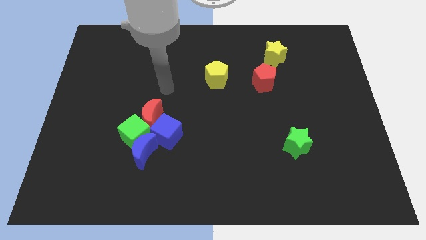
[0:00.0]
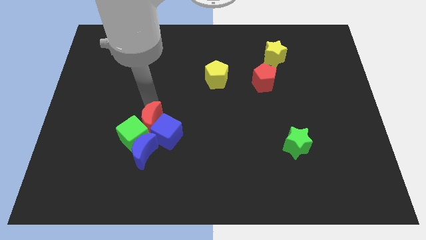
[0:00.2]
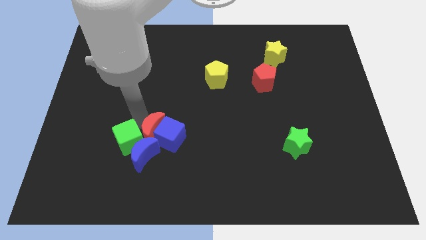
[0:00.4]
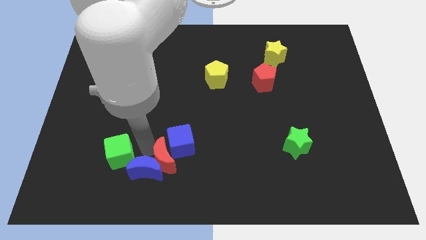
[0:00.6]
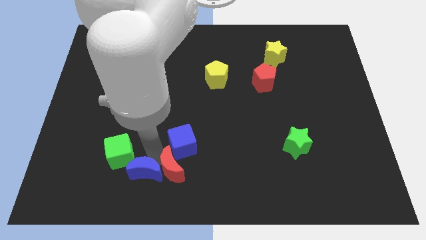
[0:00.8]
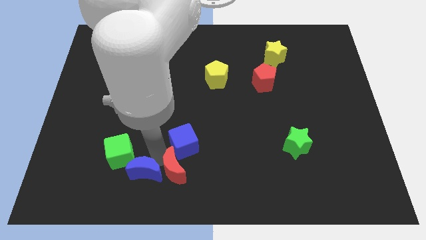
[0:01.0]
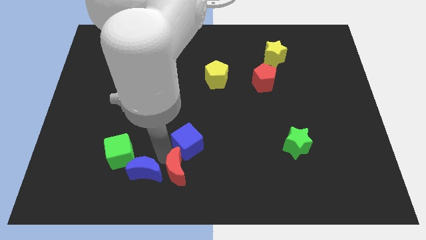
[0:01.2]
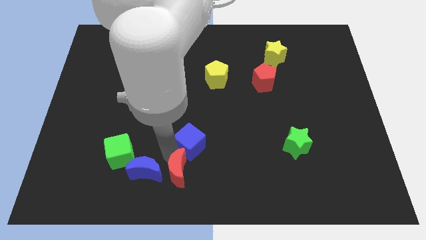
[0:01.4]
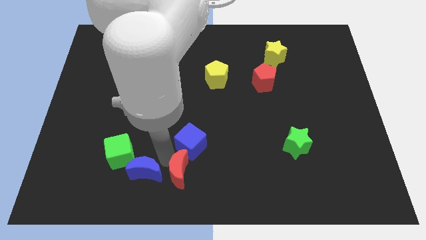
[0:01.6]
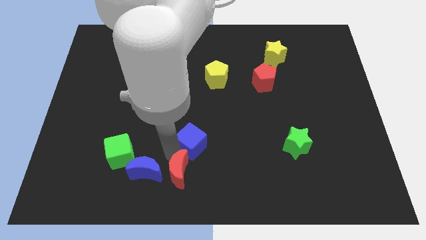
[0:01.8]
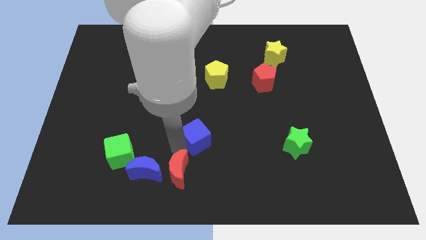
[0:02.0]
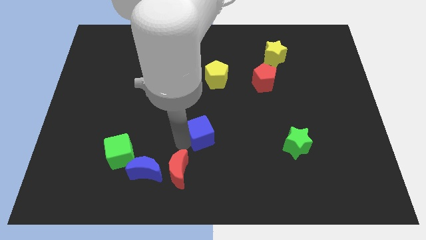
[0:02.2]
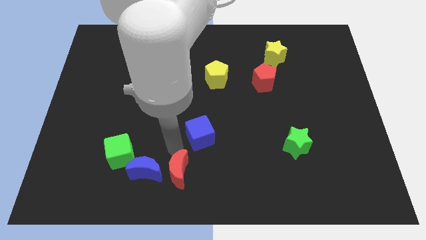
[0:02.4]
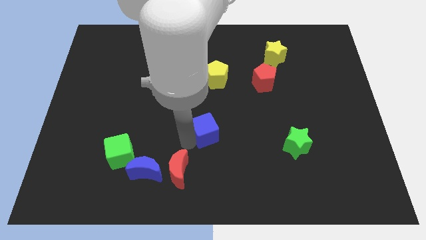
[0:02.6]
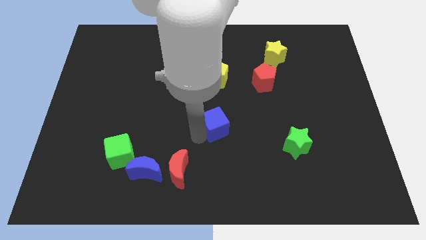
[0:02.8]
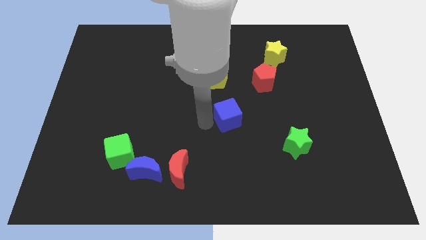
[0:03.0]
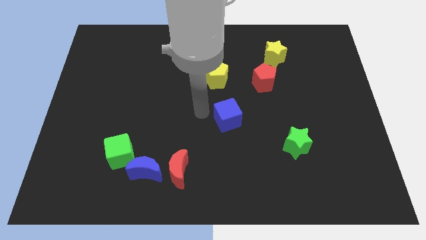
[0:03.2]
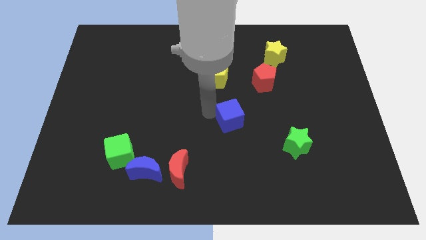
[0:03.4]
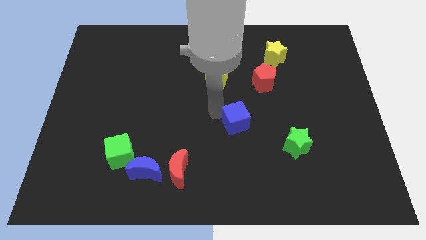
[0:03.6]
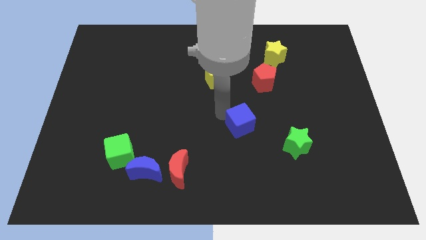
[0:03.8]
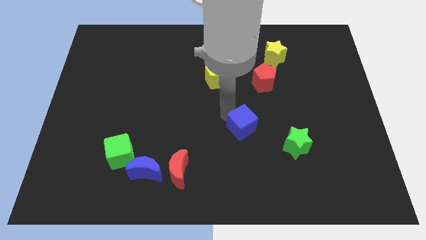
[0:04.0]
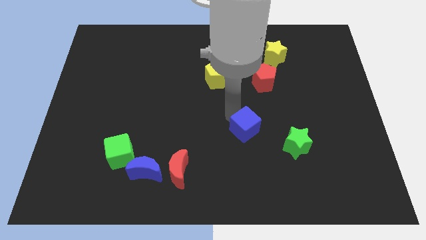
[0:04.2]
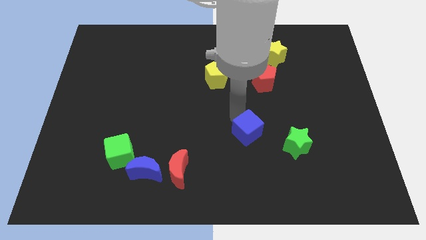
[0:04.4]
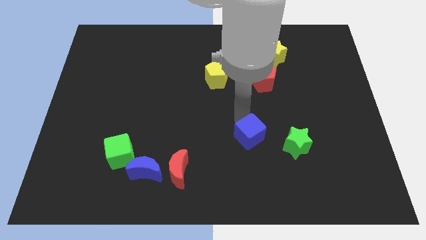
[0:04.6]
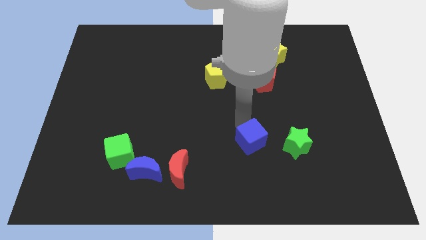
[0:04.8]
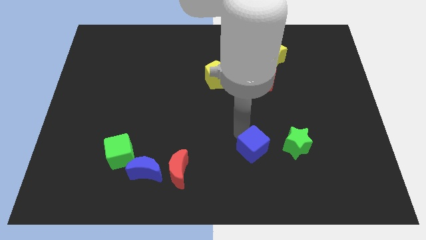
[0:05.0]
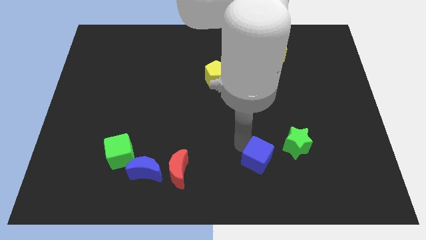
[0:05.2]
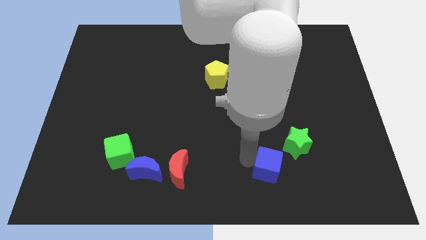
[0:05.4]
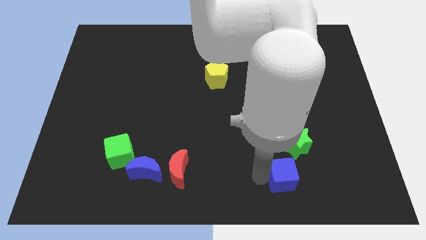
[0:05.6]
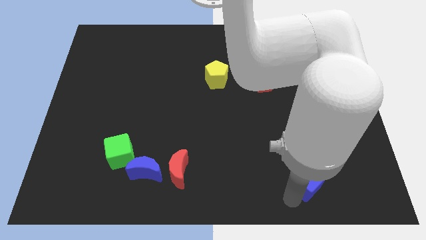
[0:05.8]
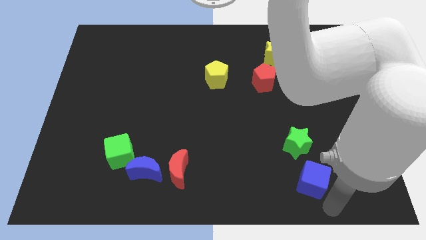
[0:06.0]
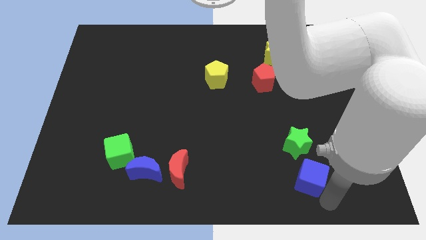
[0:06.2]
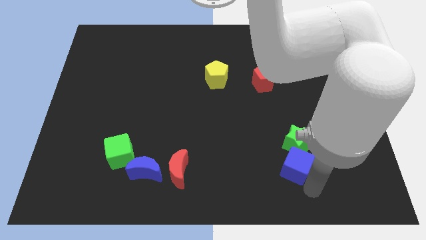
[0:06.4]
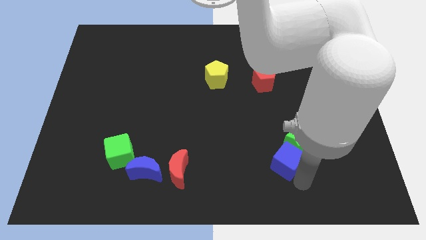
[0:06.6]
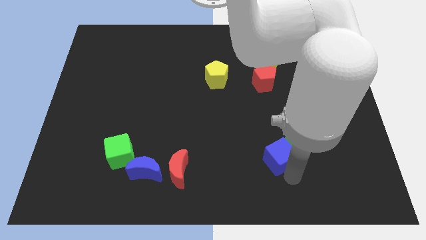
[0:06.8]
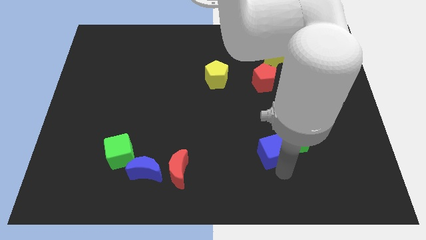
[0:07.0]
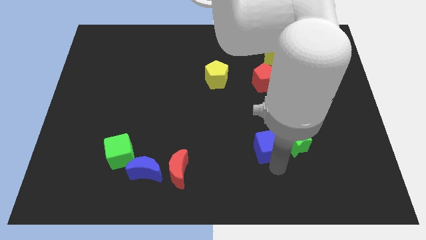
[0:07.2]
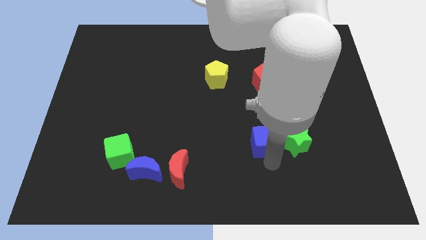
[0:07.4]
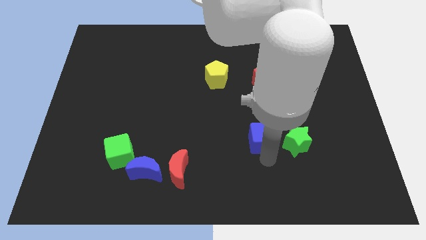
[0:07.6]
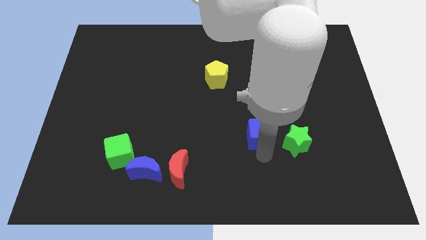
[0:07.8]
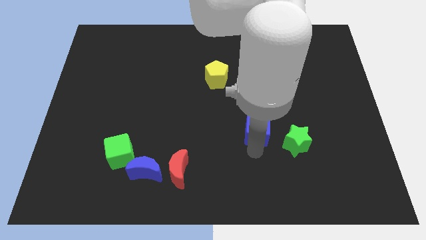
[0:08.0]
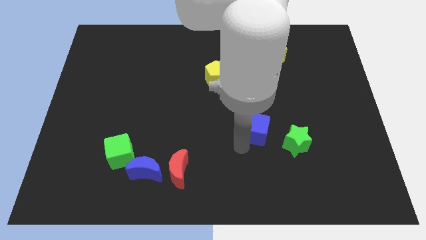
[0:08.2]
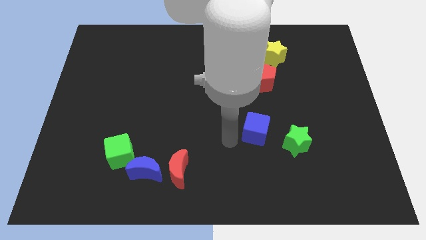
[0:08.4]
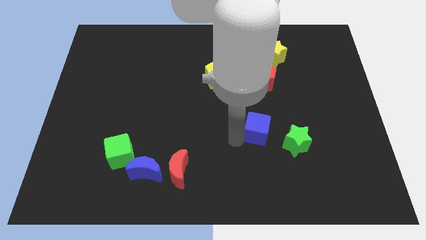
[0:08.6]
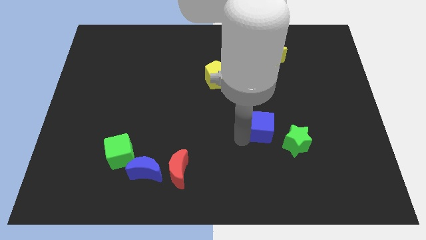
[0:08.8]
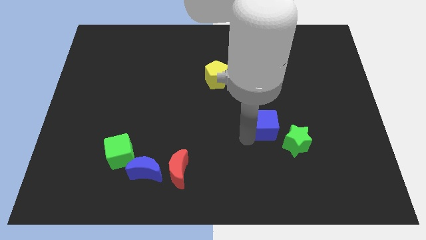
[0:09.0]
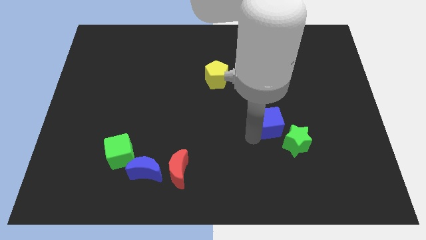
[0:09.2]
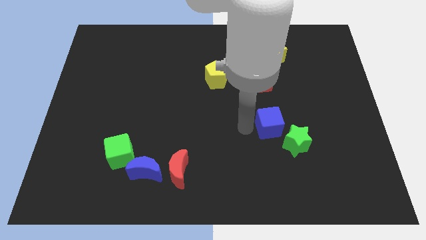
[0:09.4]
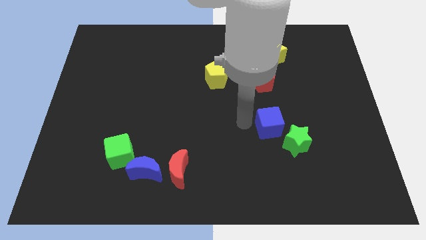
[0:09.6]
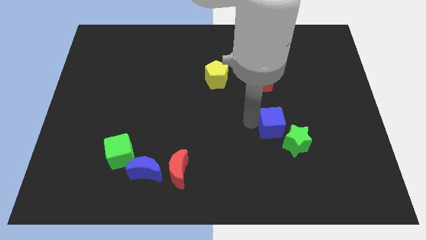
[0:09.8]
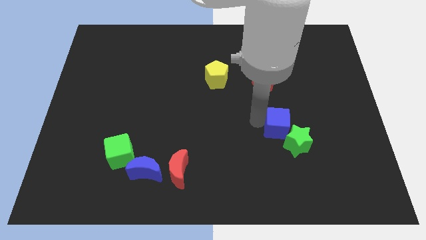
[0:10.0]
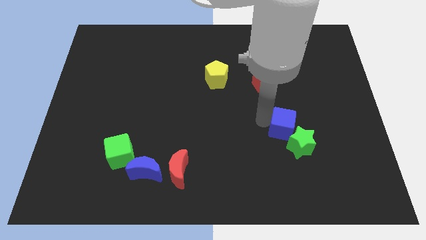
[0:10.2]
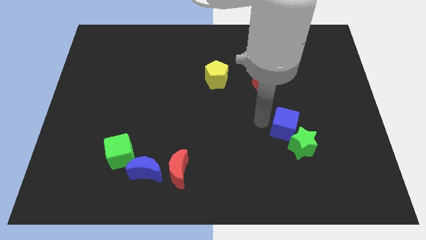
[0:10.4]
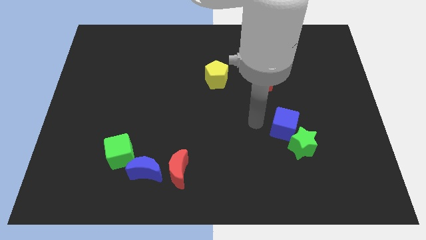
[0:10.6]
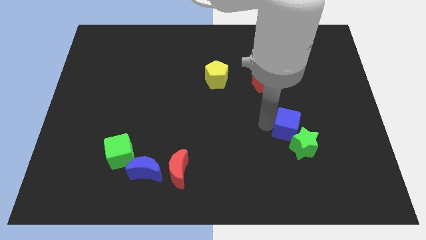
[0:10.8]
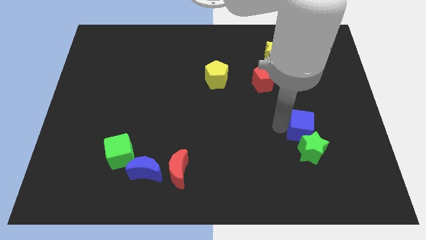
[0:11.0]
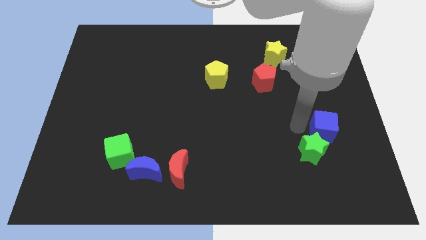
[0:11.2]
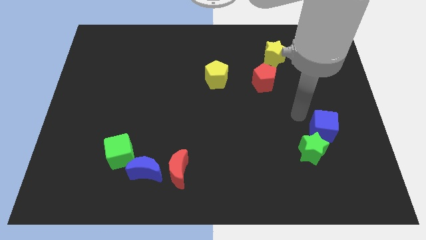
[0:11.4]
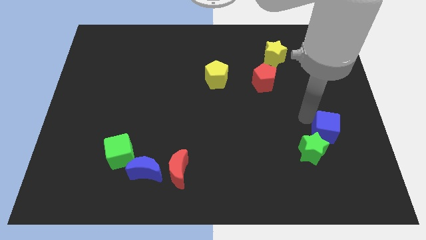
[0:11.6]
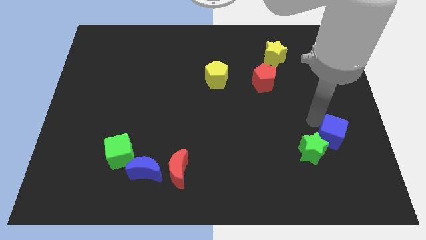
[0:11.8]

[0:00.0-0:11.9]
push the blue cube to the right side of the green star

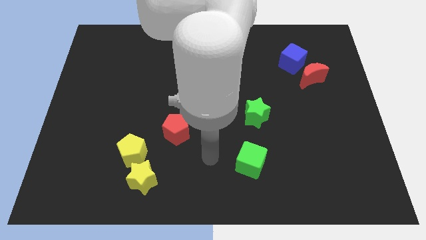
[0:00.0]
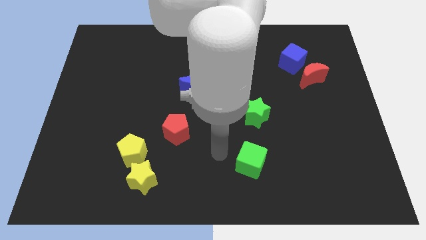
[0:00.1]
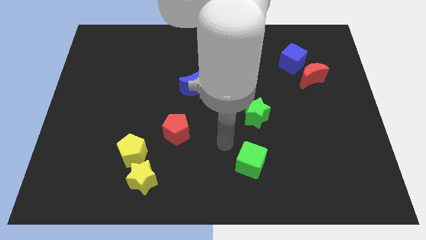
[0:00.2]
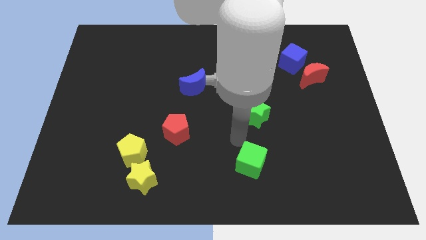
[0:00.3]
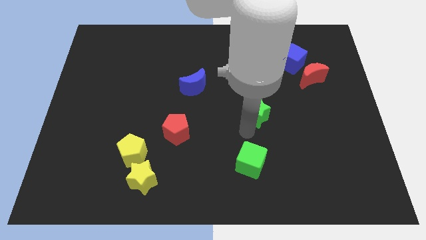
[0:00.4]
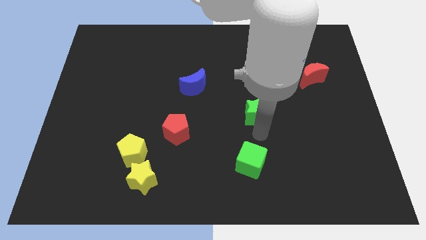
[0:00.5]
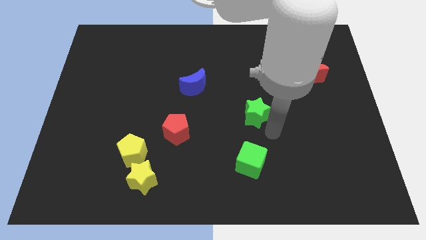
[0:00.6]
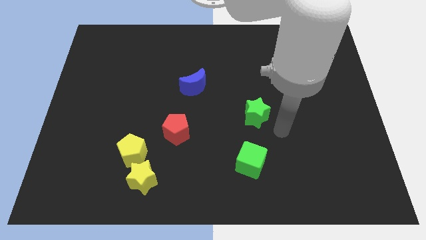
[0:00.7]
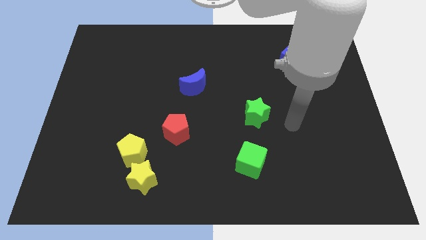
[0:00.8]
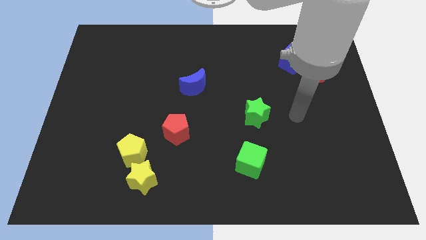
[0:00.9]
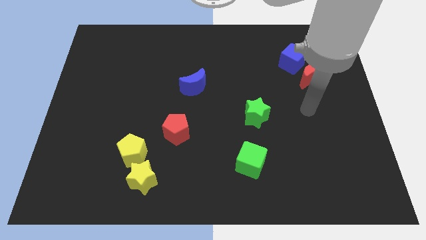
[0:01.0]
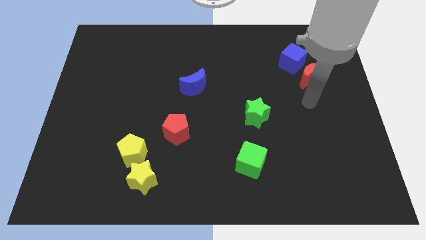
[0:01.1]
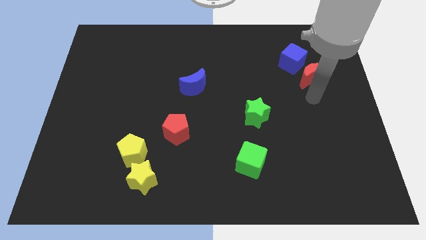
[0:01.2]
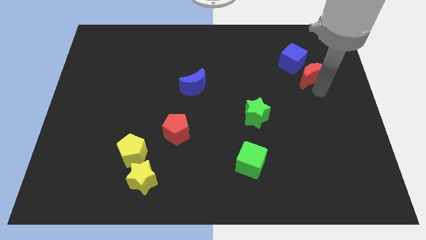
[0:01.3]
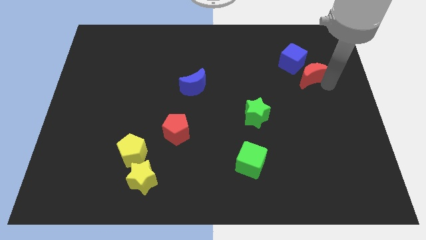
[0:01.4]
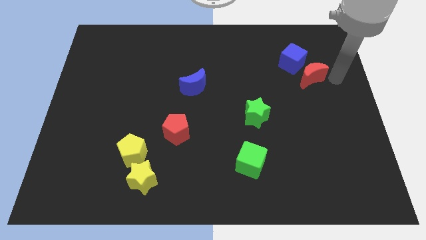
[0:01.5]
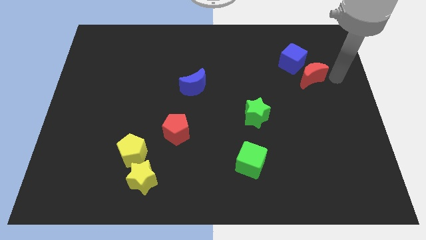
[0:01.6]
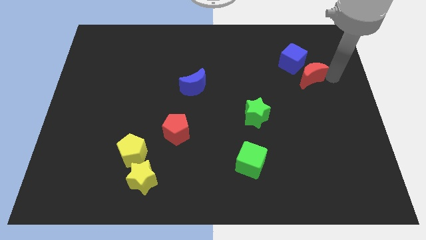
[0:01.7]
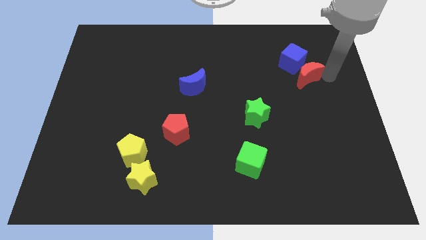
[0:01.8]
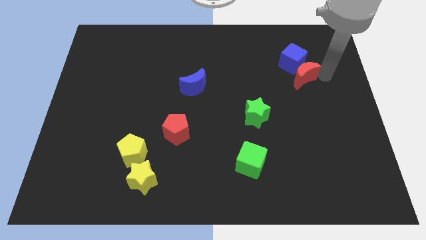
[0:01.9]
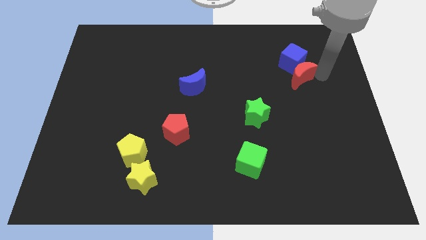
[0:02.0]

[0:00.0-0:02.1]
move the red moon to the bottom left side of the blue cube
